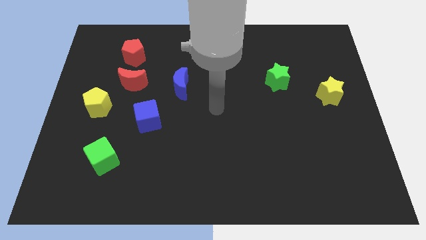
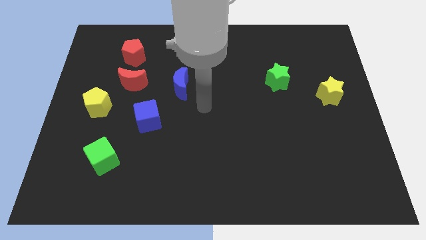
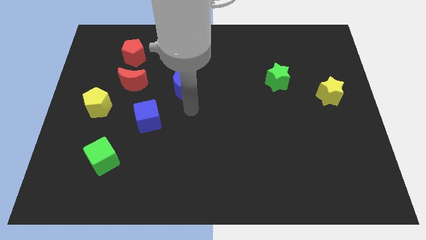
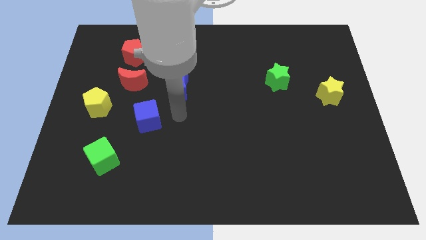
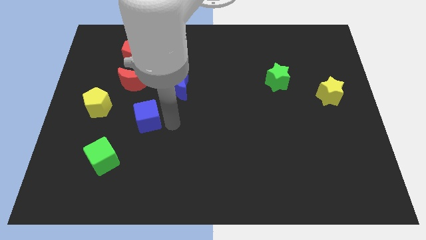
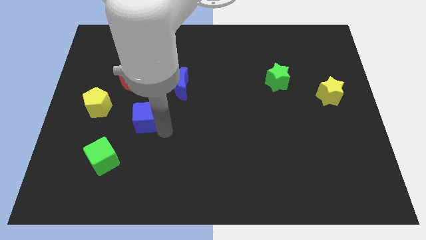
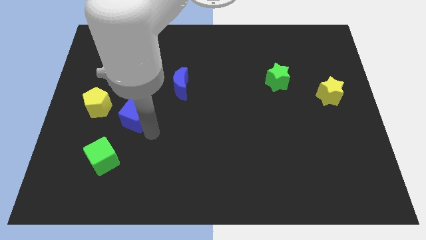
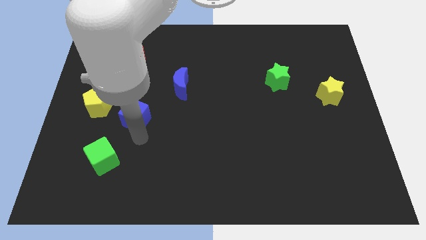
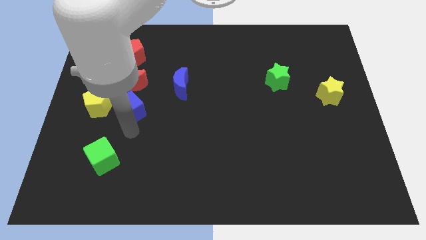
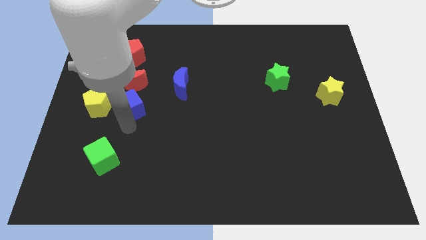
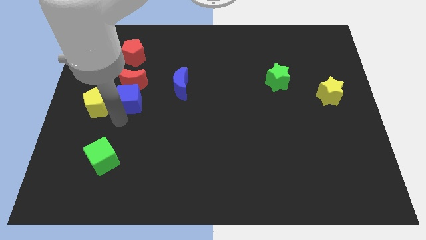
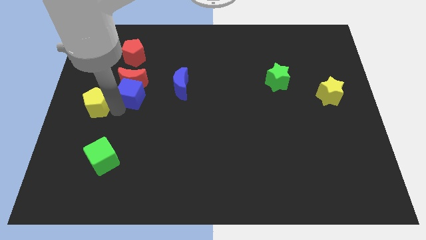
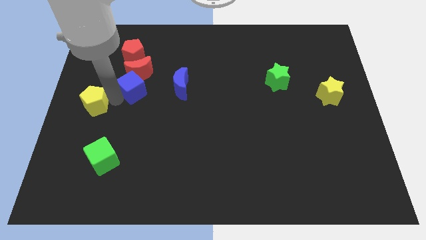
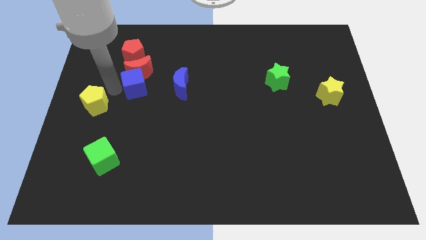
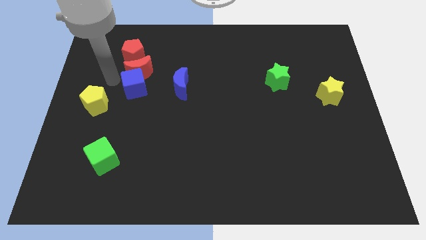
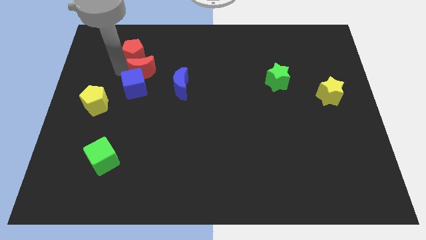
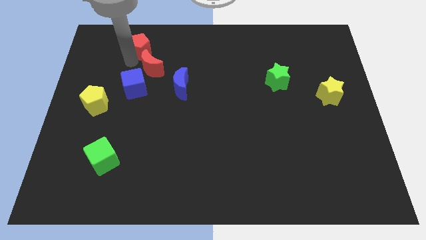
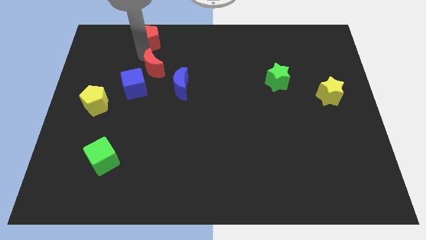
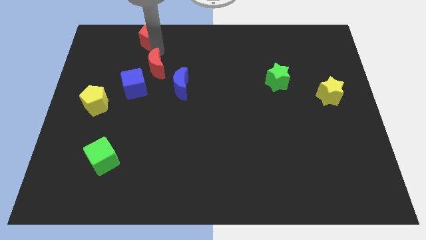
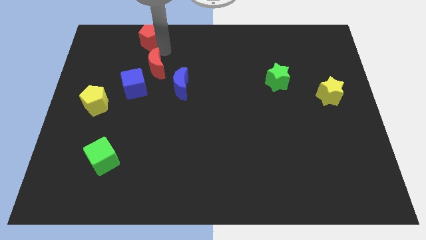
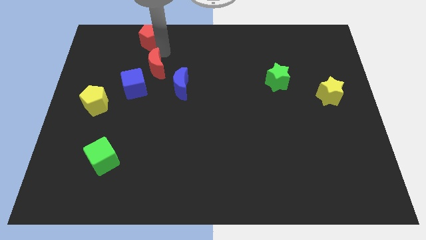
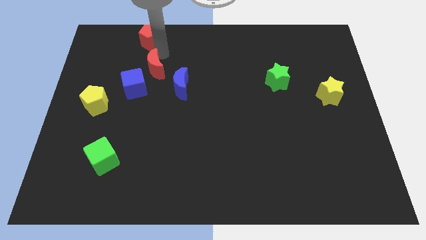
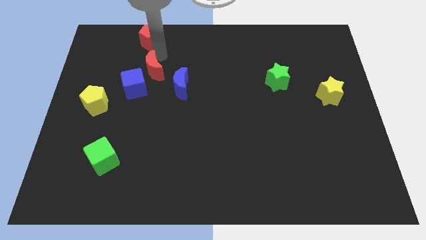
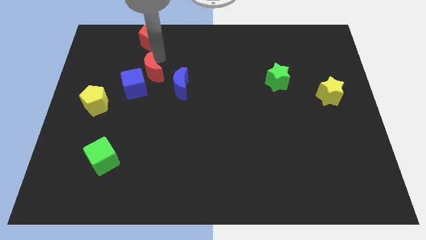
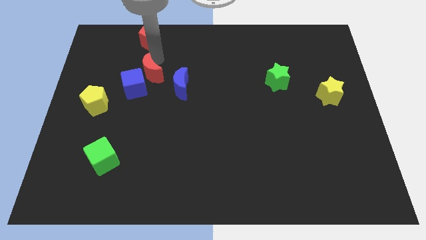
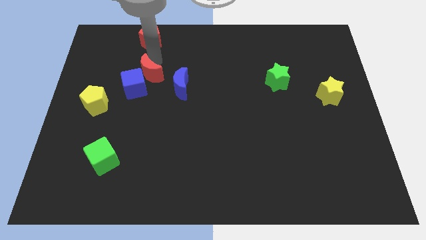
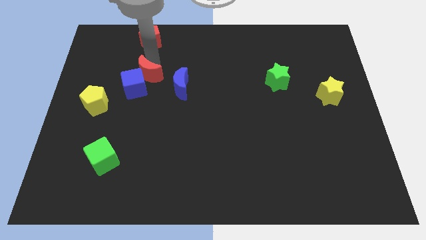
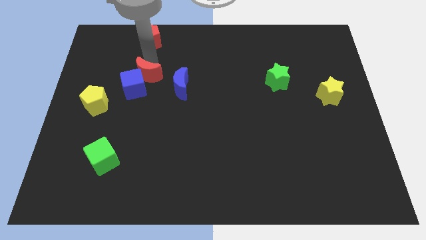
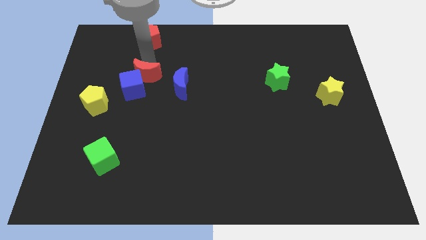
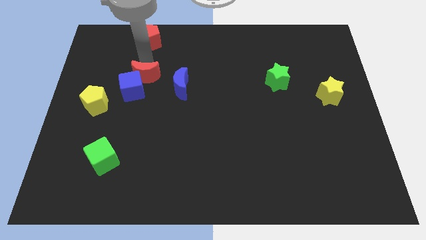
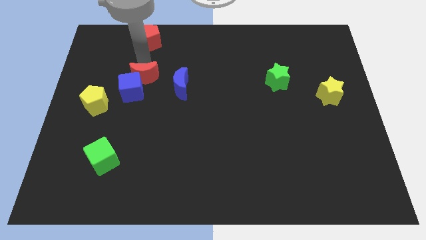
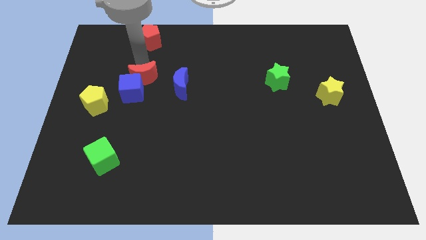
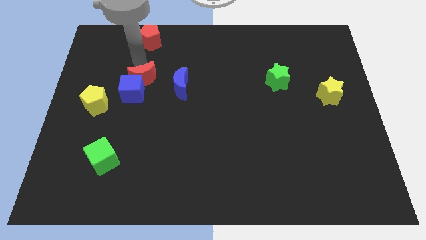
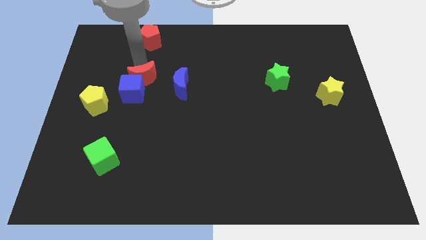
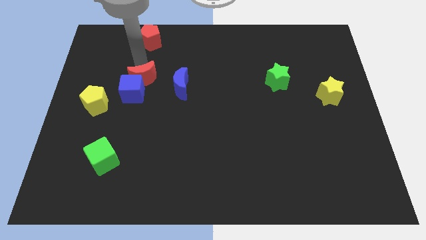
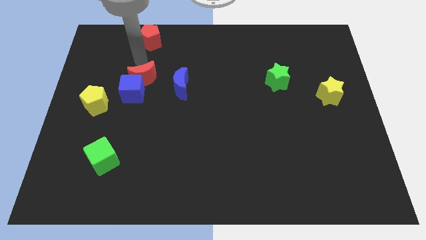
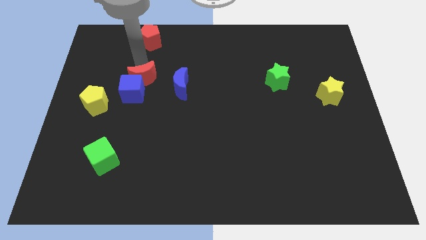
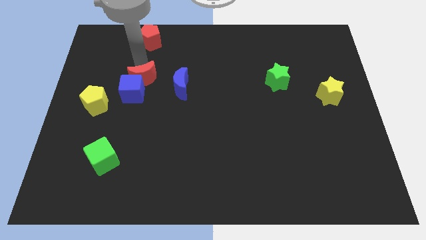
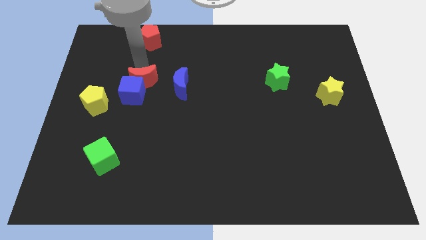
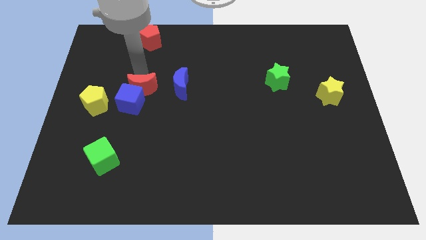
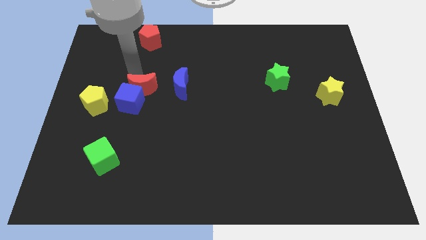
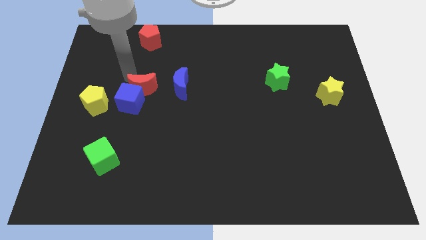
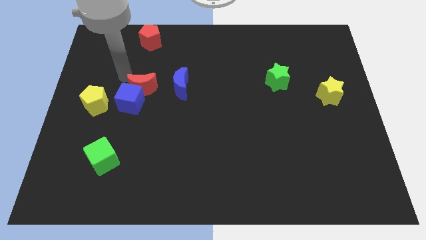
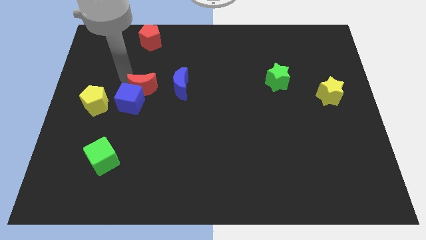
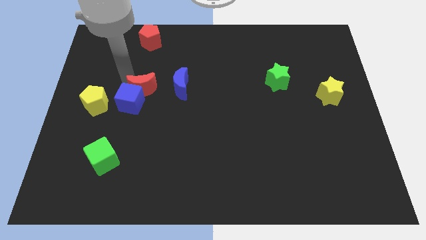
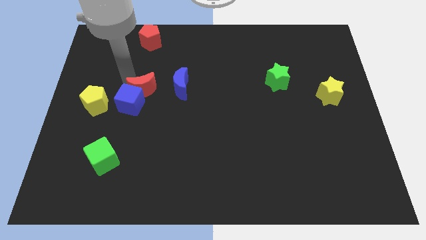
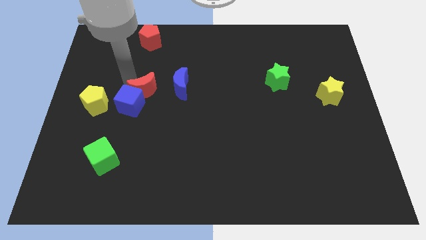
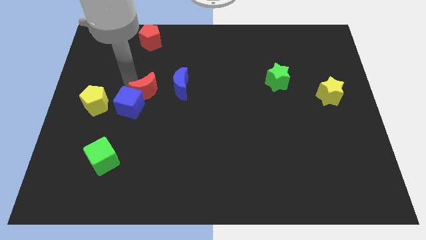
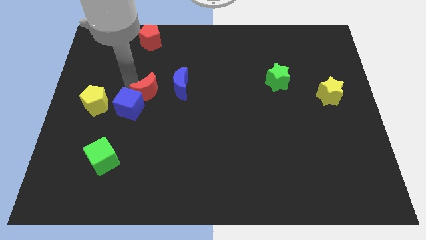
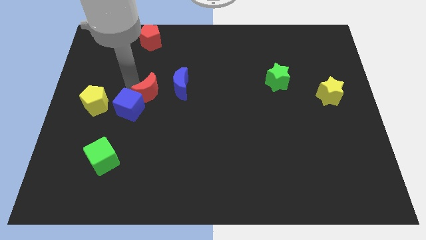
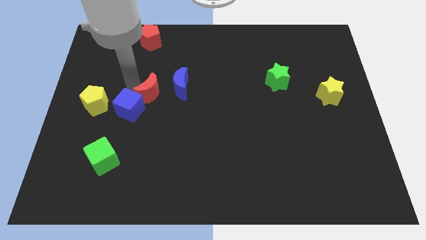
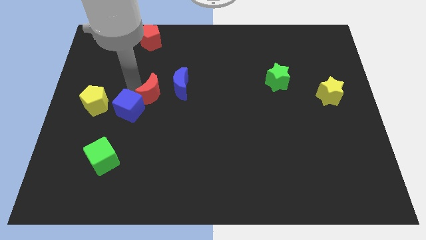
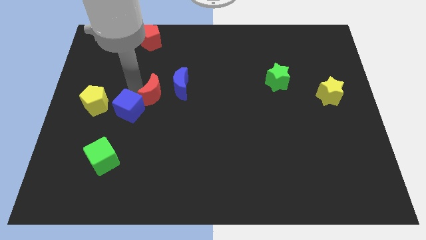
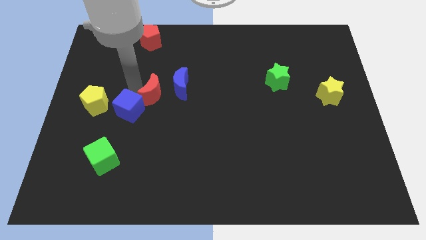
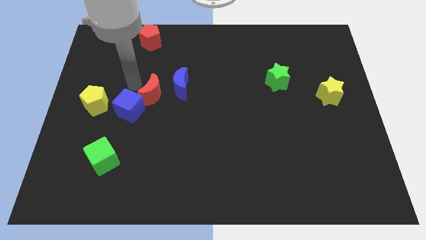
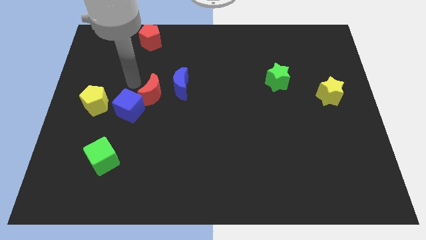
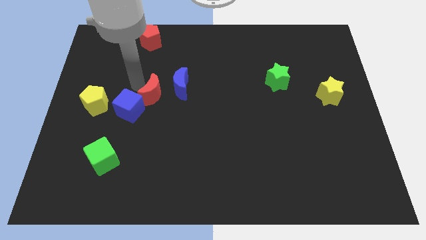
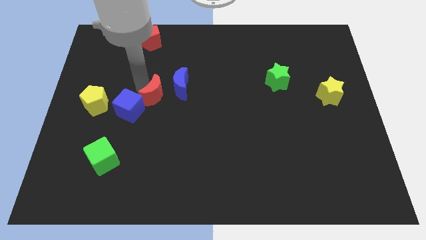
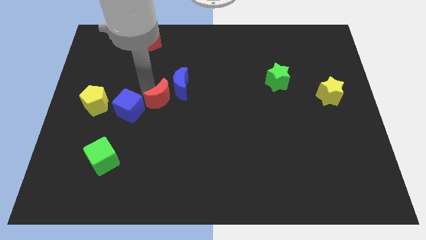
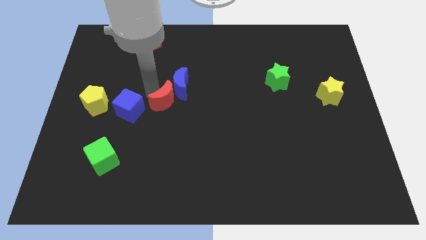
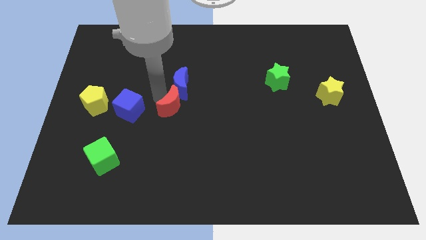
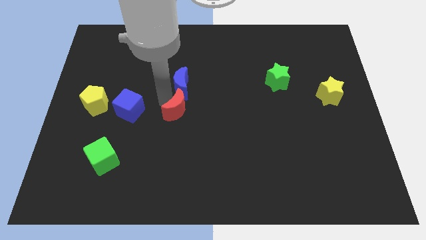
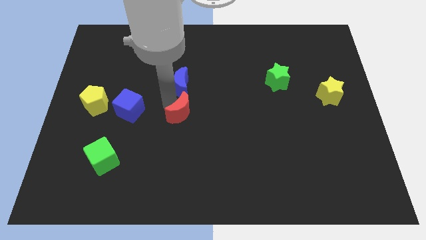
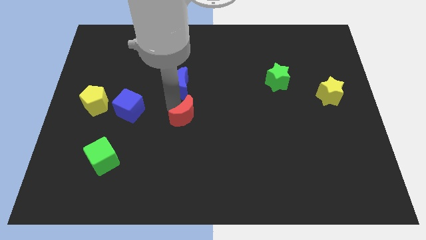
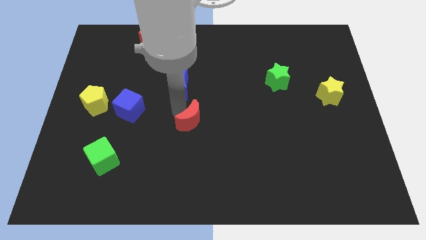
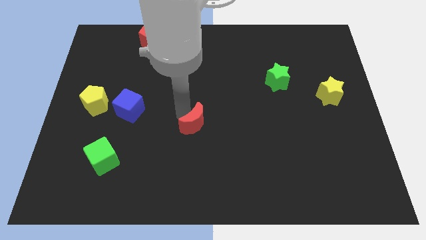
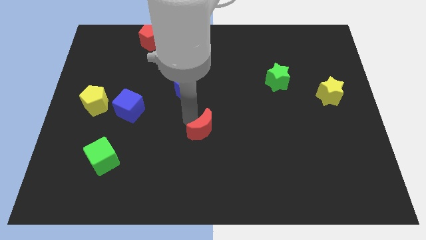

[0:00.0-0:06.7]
move the red moon downwards and right diagonally

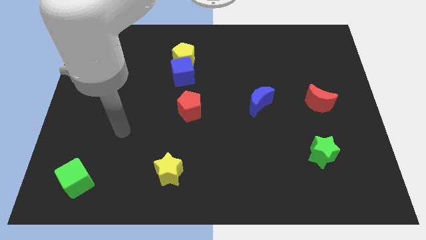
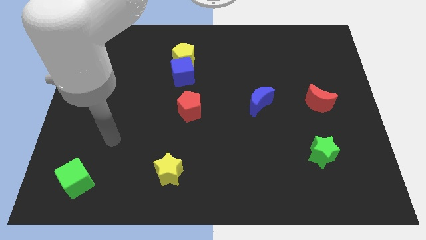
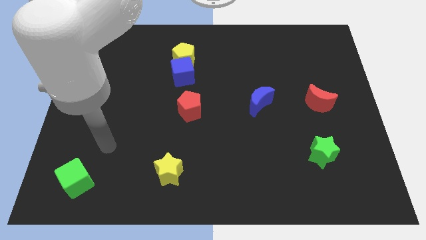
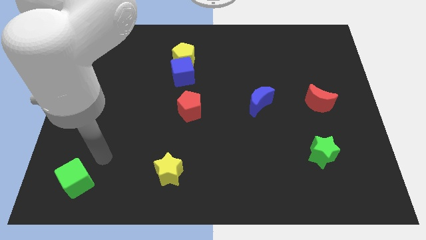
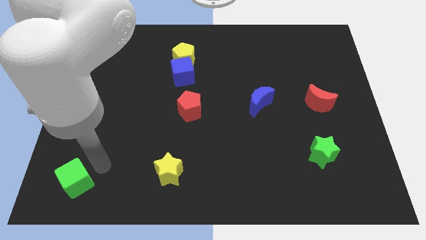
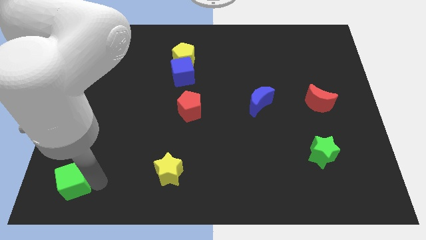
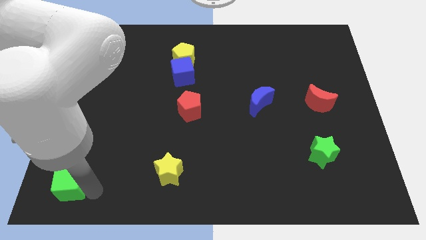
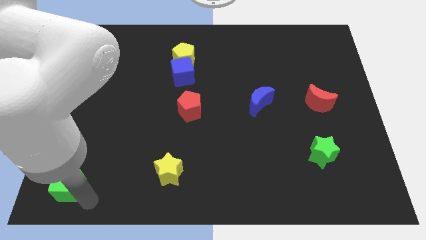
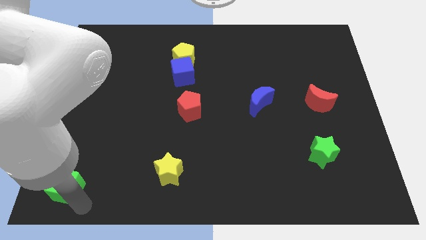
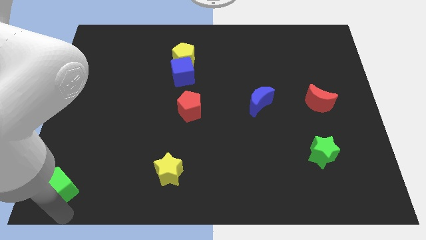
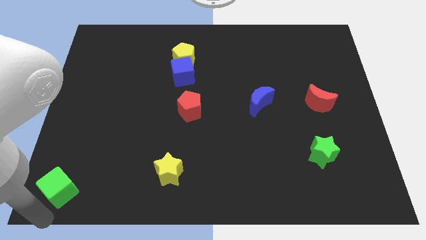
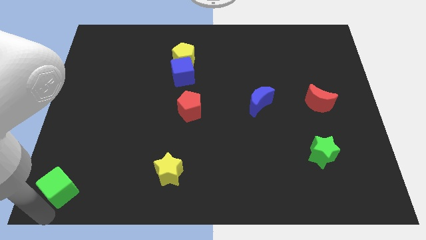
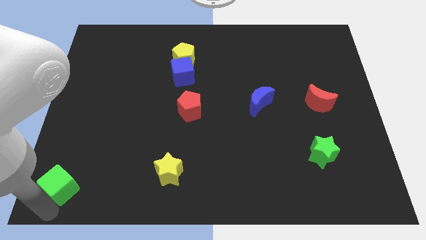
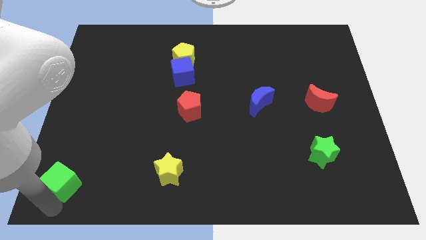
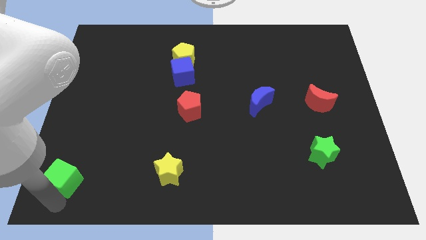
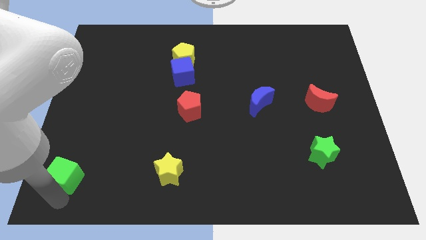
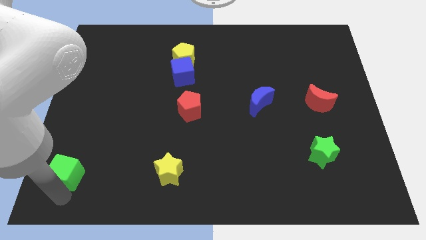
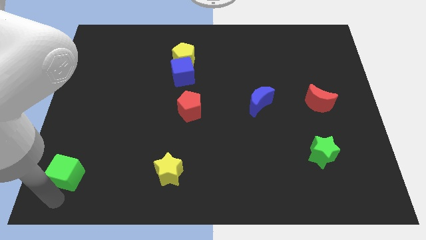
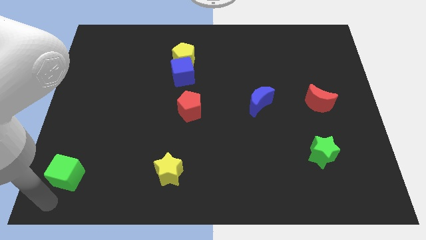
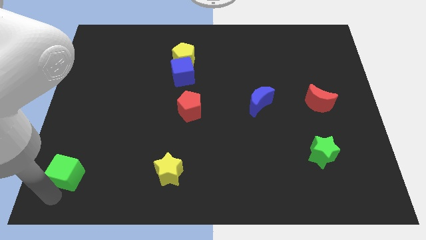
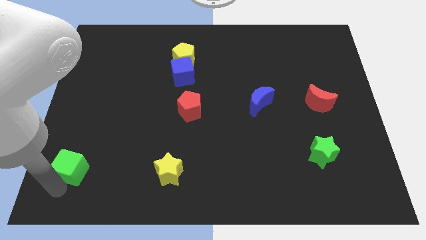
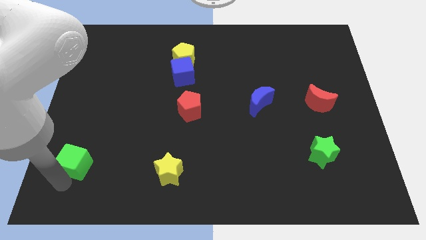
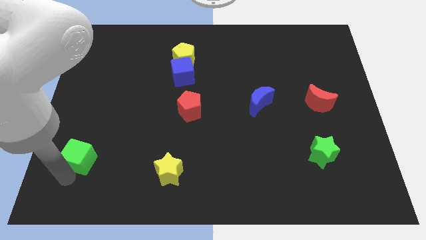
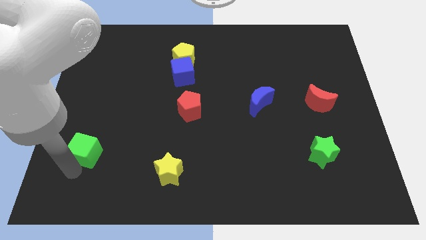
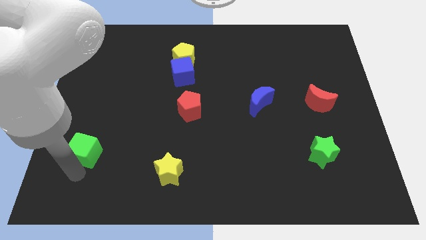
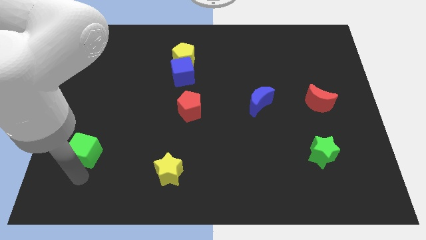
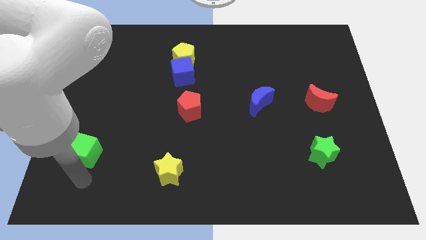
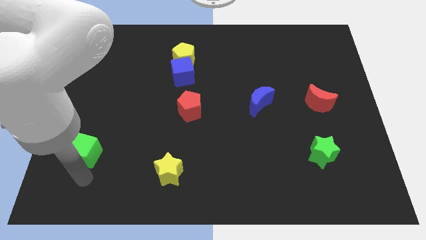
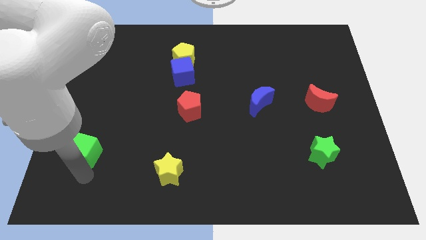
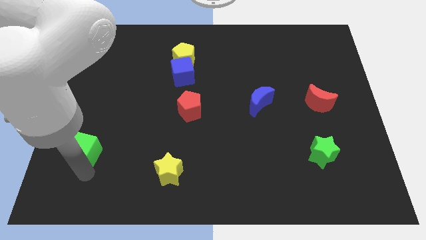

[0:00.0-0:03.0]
push the green cube up slightly
